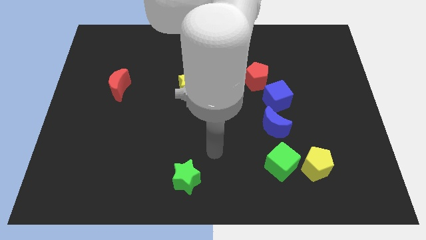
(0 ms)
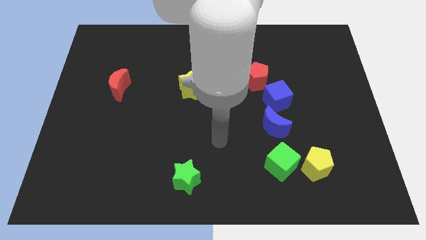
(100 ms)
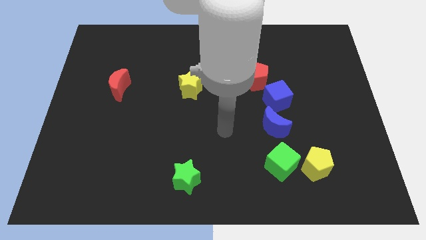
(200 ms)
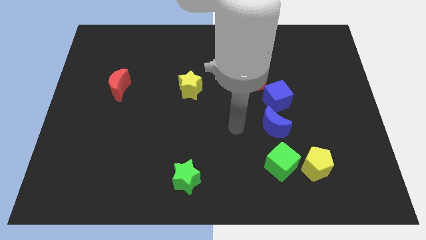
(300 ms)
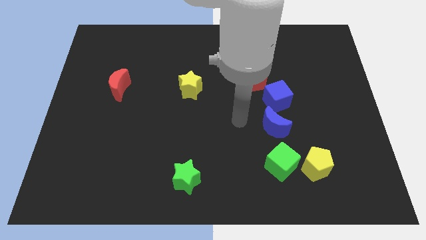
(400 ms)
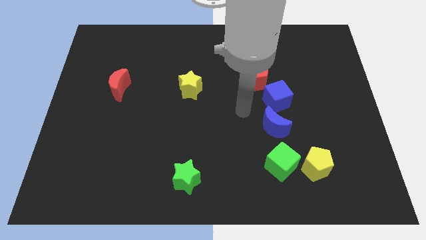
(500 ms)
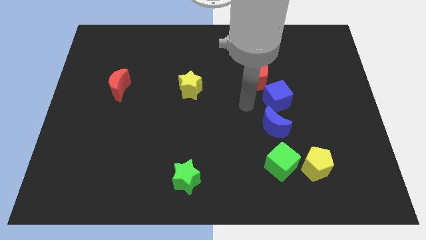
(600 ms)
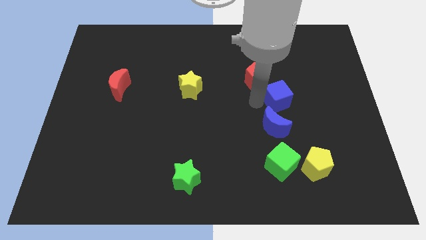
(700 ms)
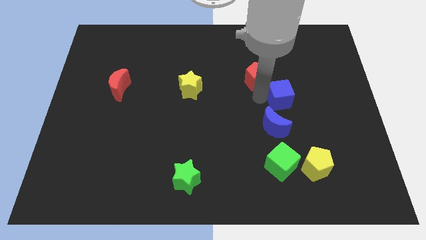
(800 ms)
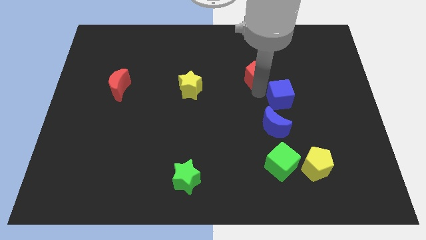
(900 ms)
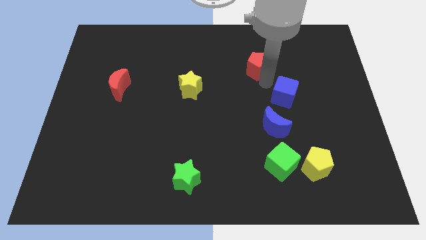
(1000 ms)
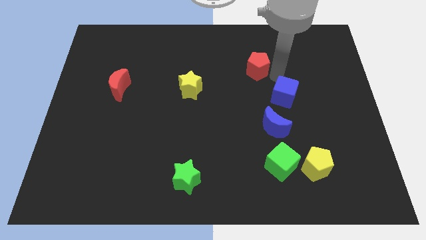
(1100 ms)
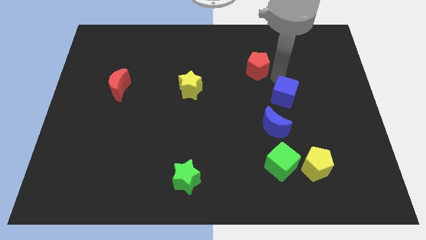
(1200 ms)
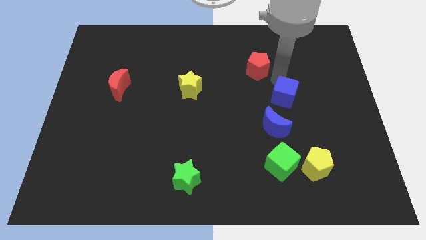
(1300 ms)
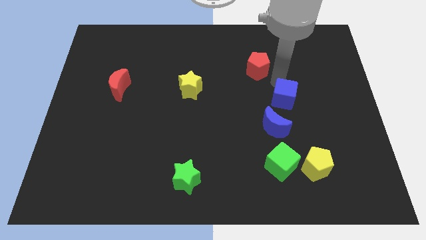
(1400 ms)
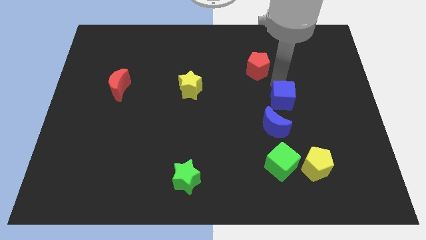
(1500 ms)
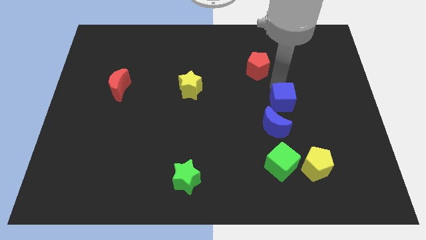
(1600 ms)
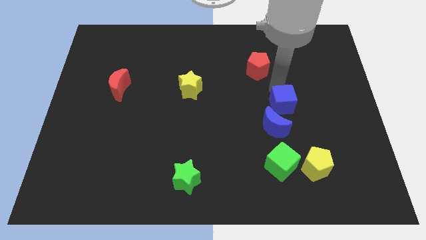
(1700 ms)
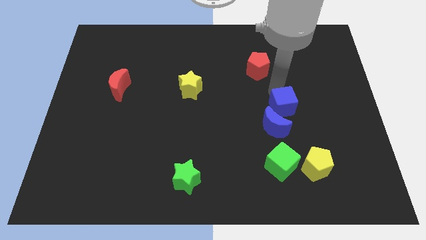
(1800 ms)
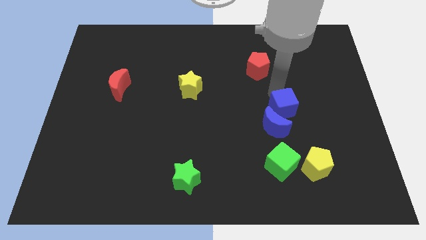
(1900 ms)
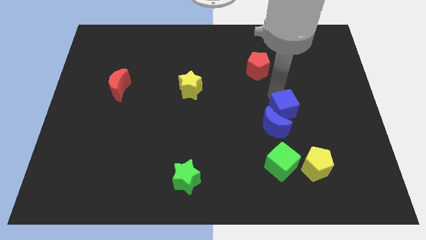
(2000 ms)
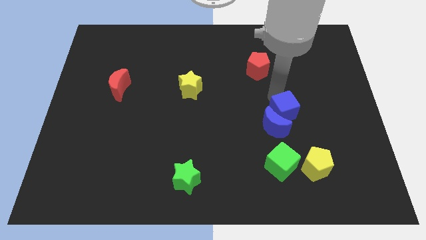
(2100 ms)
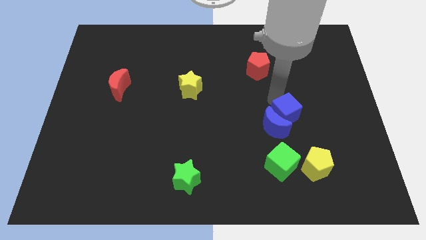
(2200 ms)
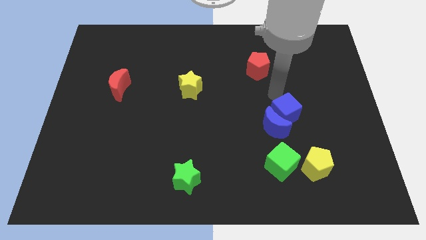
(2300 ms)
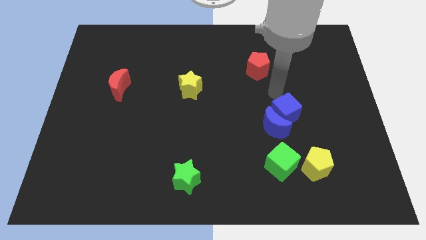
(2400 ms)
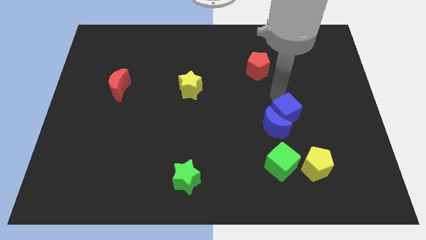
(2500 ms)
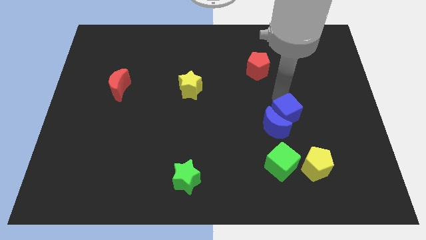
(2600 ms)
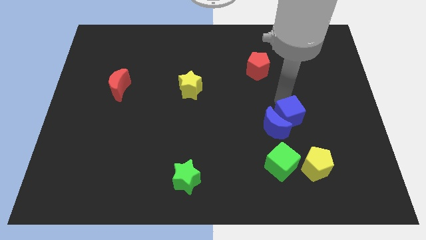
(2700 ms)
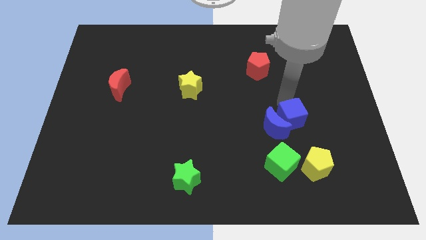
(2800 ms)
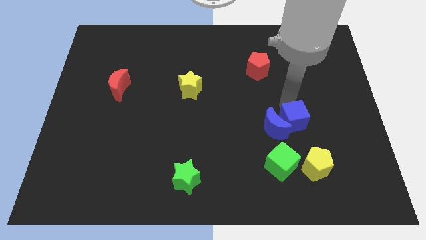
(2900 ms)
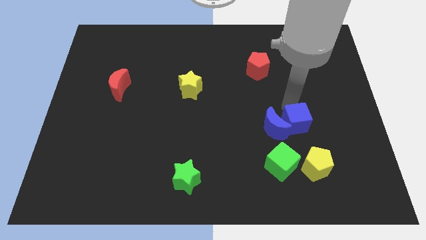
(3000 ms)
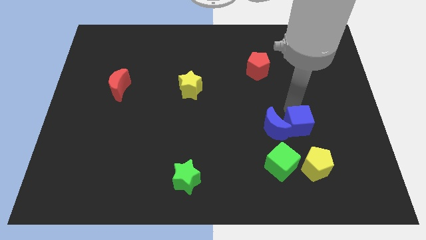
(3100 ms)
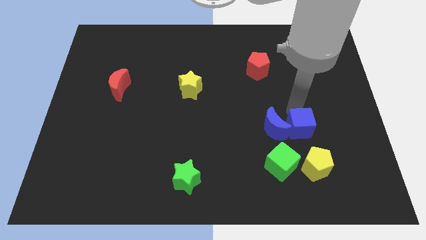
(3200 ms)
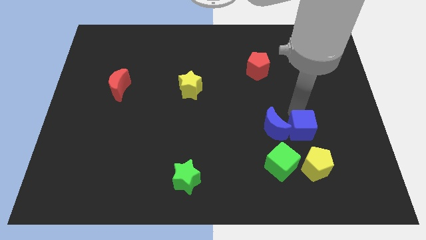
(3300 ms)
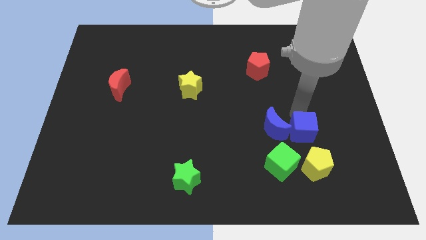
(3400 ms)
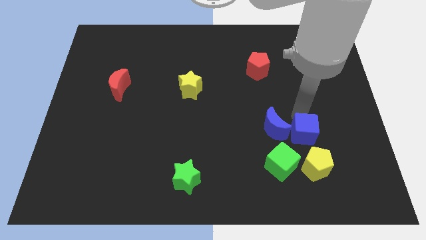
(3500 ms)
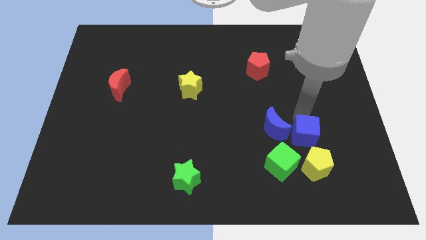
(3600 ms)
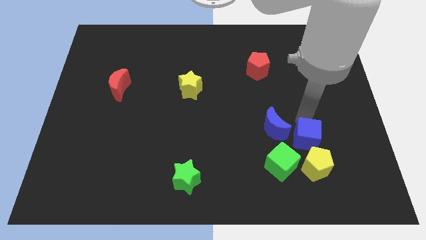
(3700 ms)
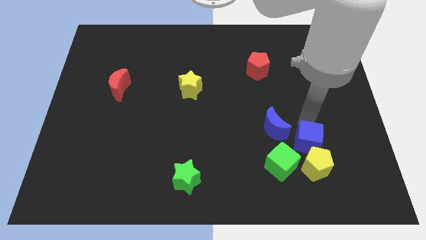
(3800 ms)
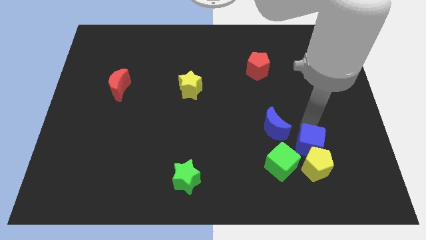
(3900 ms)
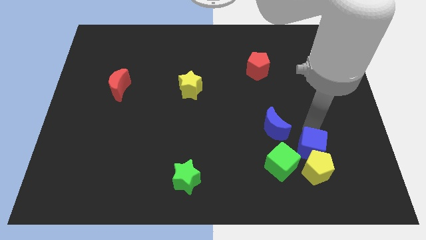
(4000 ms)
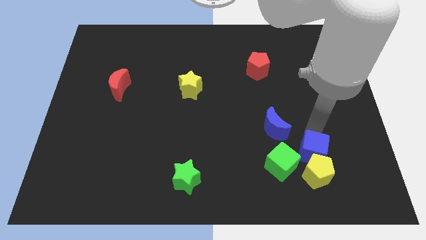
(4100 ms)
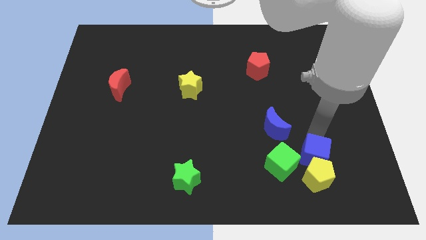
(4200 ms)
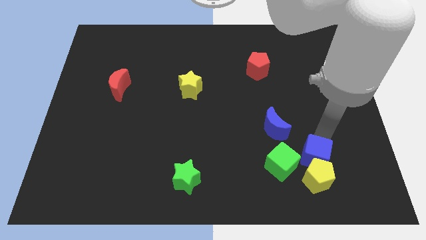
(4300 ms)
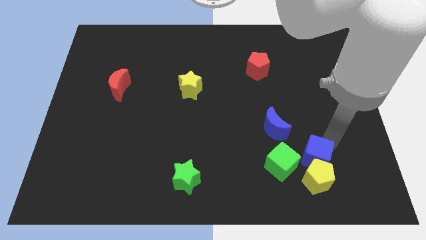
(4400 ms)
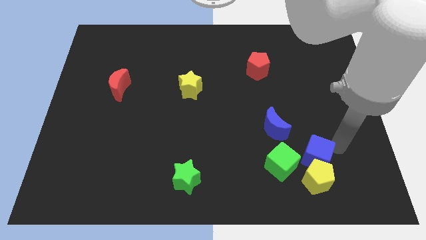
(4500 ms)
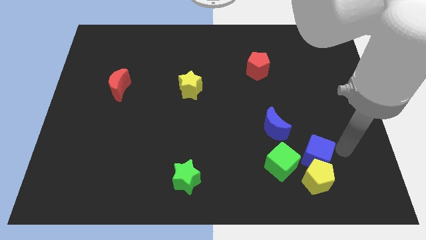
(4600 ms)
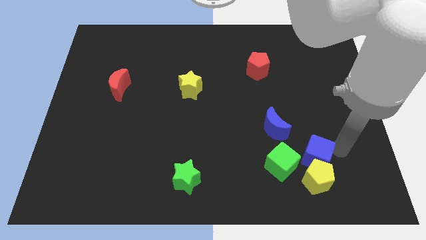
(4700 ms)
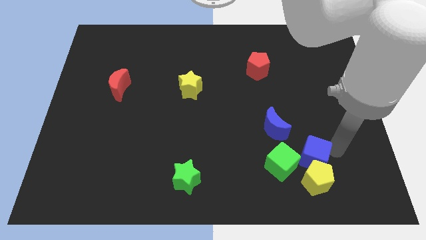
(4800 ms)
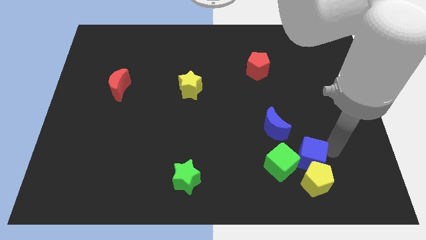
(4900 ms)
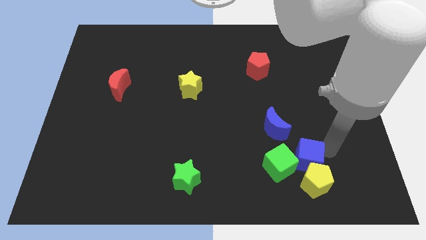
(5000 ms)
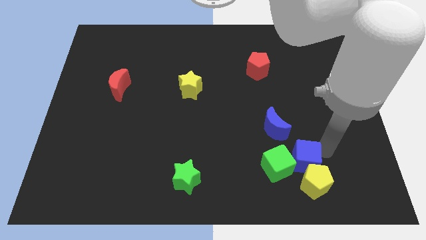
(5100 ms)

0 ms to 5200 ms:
move the blue cube towards the green cube

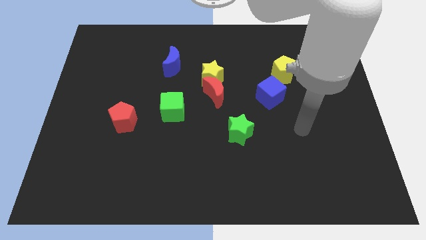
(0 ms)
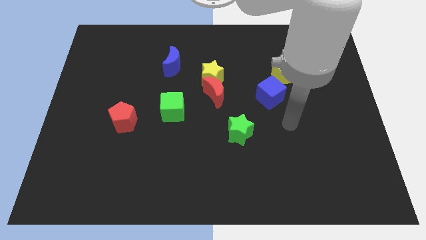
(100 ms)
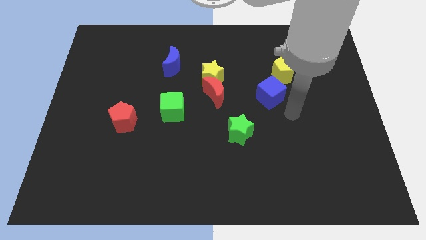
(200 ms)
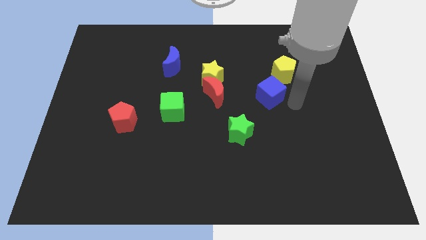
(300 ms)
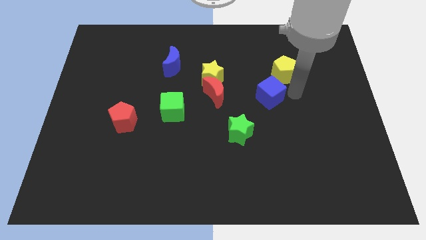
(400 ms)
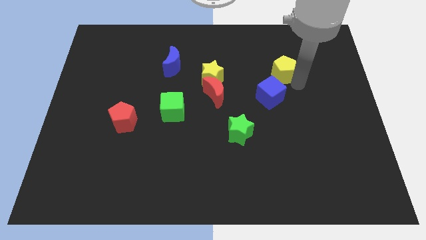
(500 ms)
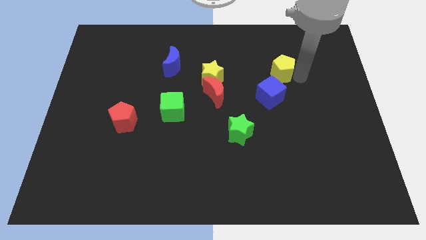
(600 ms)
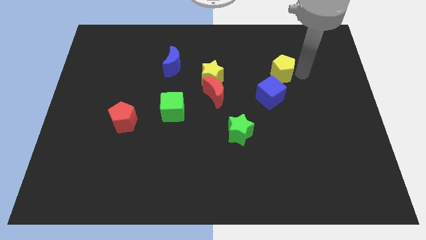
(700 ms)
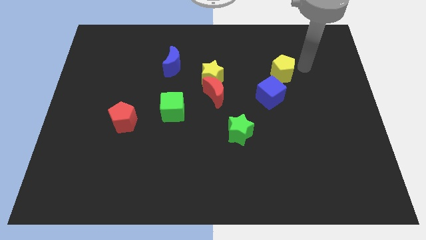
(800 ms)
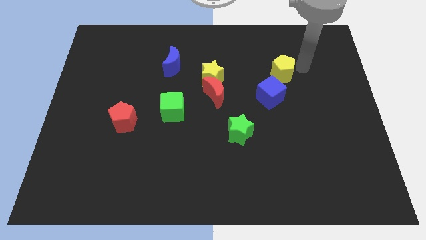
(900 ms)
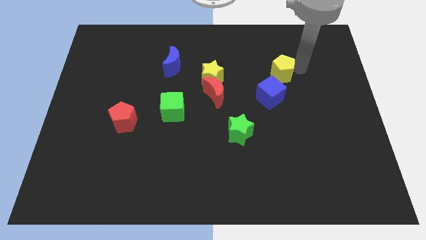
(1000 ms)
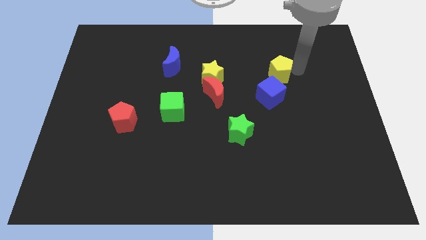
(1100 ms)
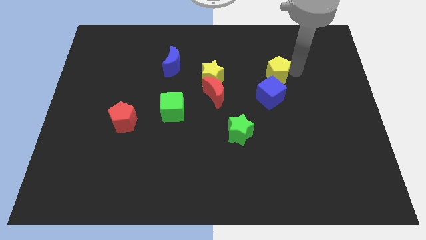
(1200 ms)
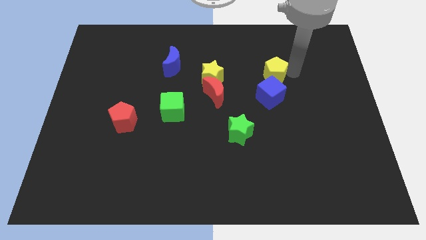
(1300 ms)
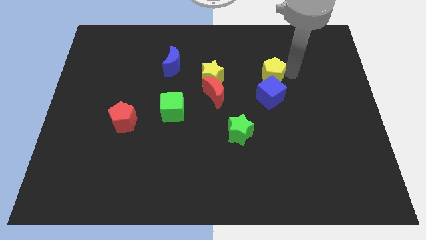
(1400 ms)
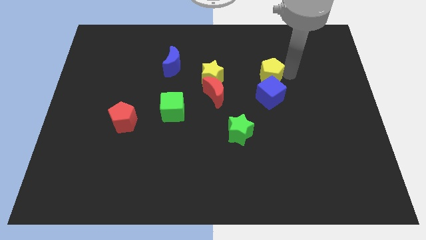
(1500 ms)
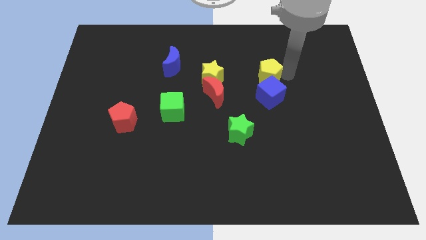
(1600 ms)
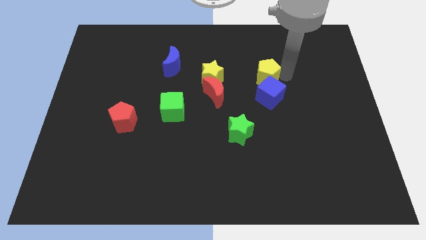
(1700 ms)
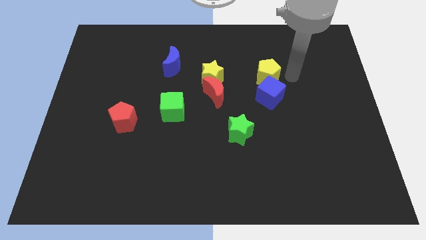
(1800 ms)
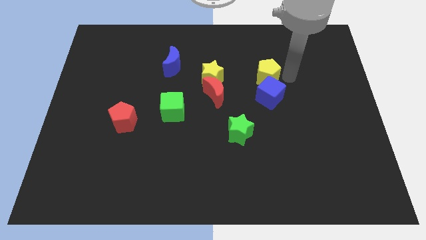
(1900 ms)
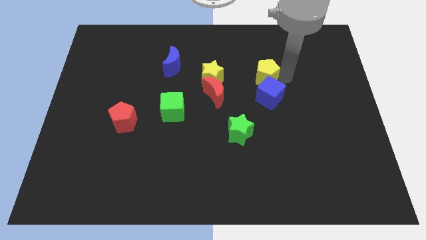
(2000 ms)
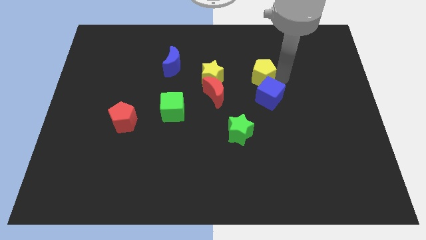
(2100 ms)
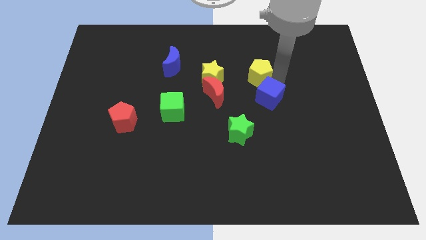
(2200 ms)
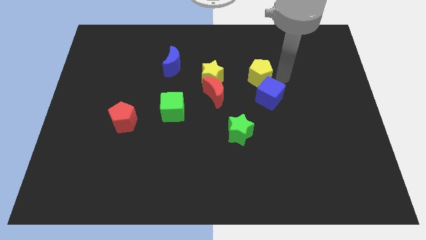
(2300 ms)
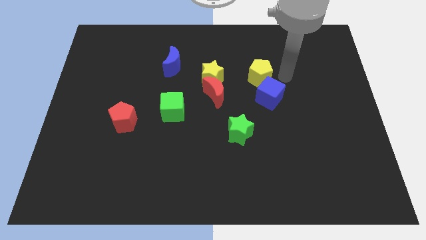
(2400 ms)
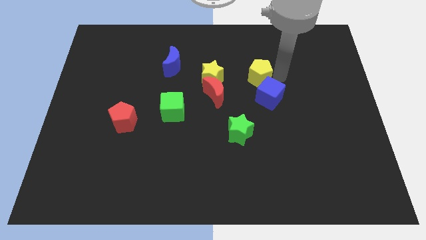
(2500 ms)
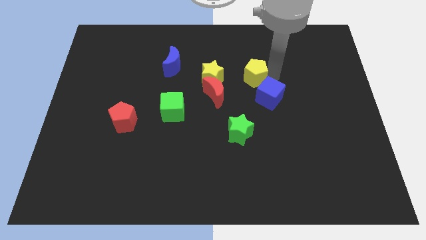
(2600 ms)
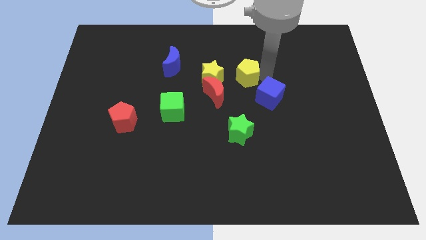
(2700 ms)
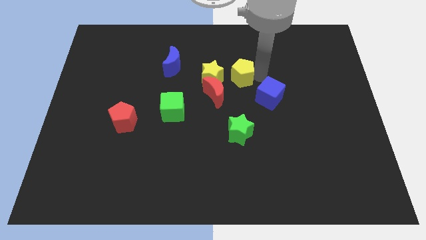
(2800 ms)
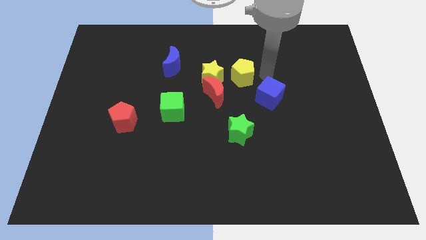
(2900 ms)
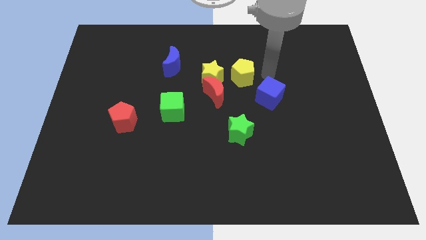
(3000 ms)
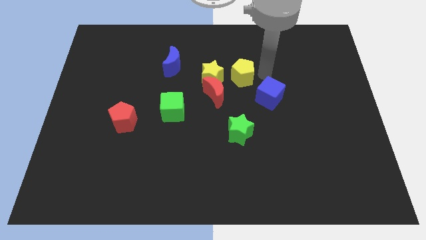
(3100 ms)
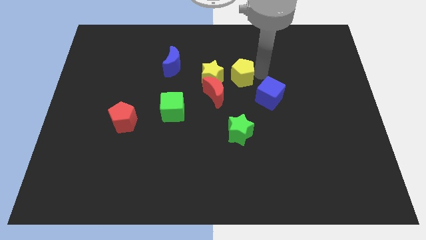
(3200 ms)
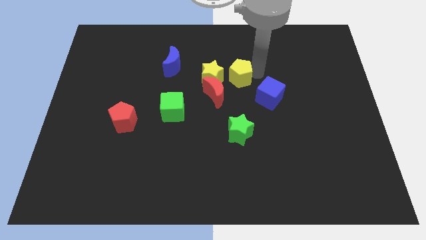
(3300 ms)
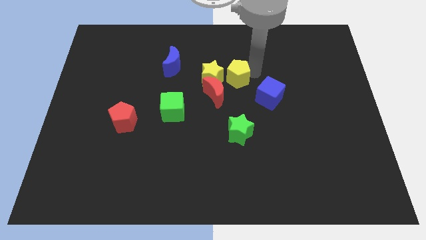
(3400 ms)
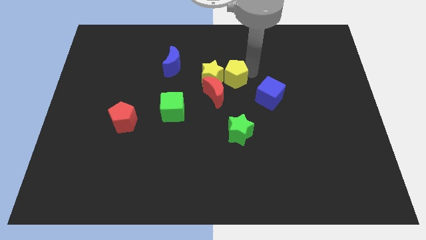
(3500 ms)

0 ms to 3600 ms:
slide the yellow pentagon towards the yellow star
